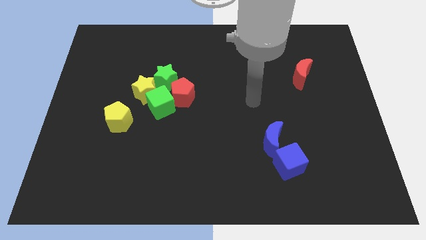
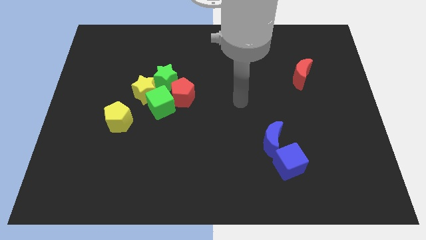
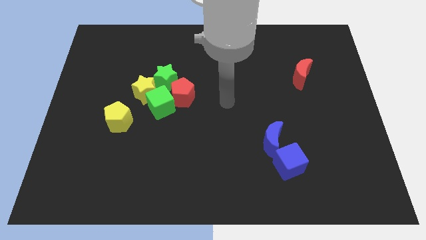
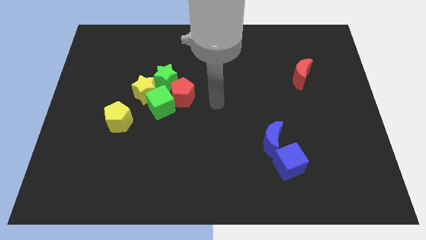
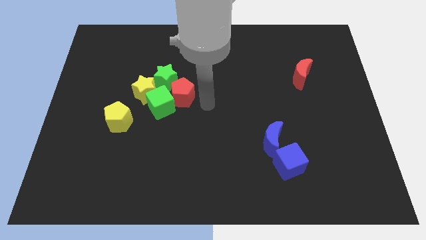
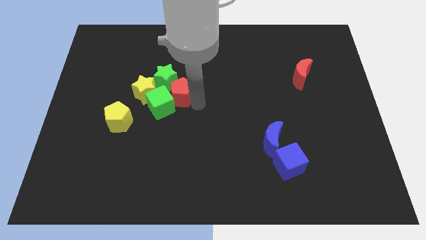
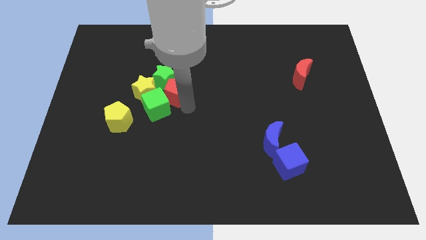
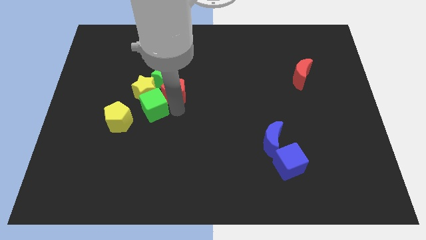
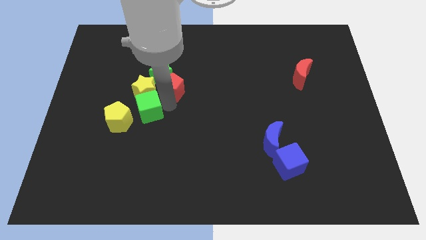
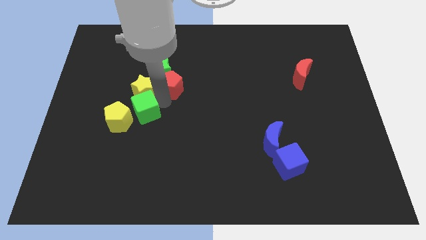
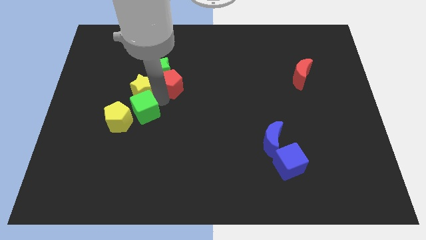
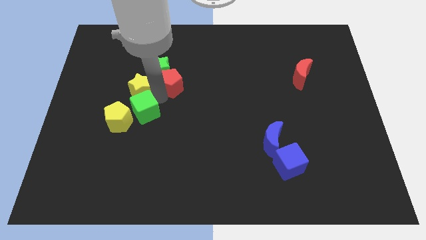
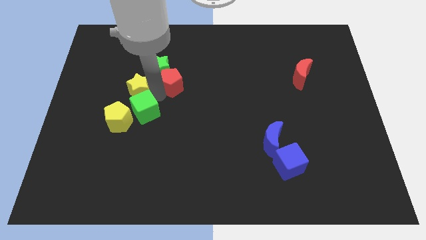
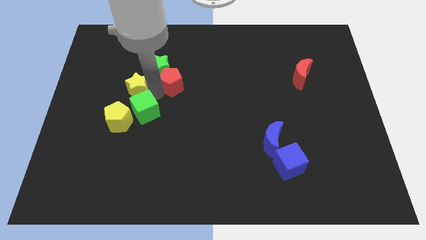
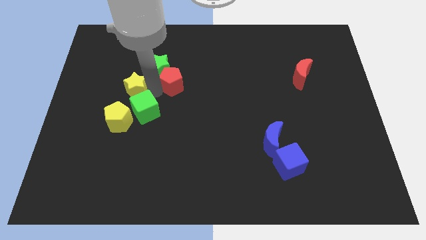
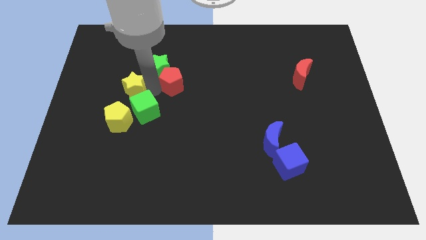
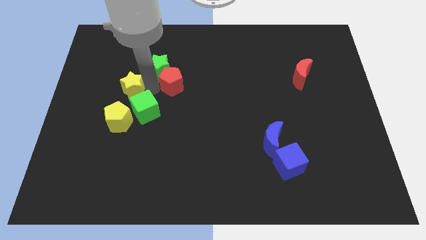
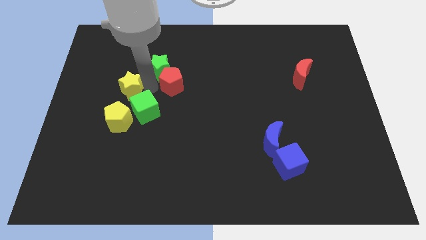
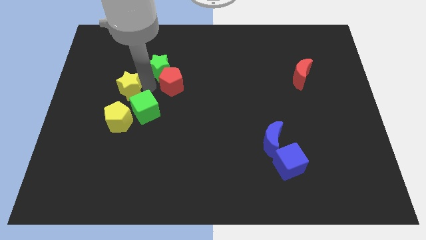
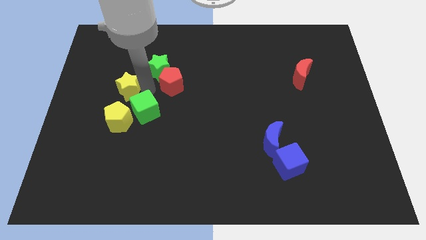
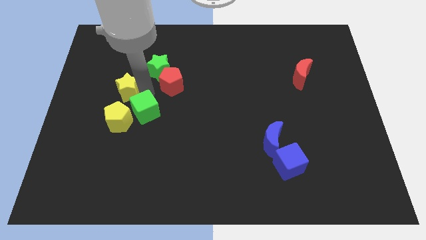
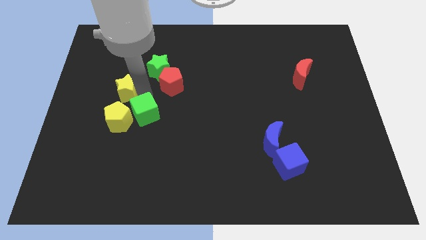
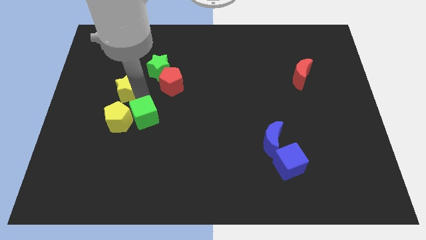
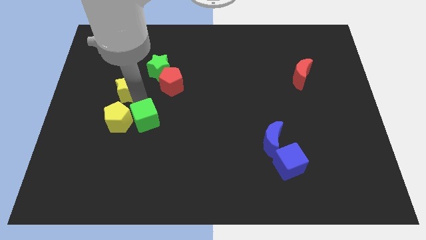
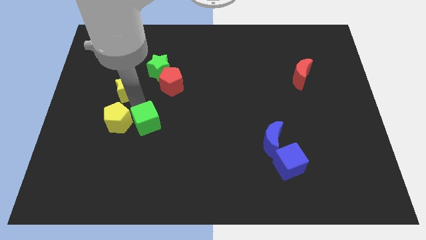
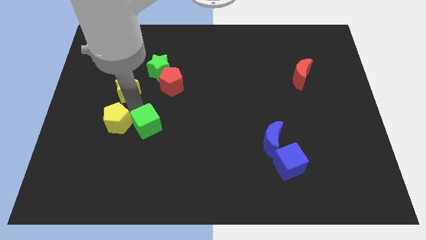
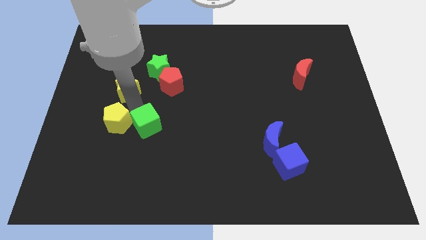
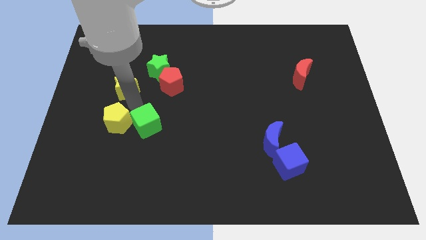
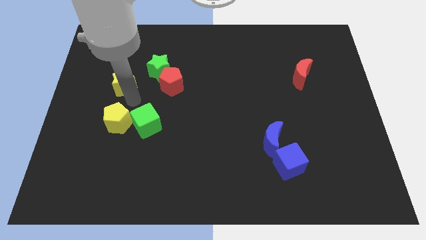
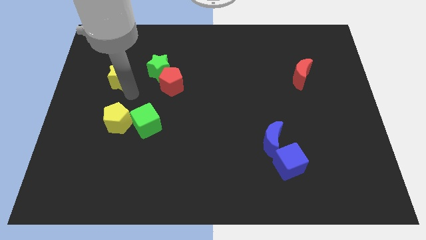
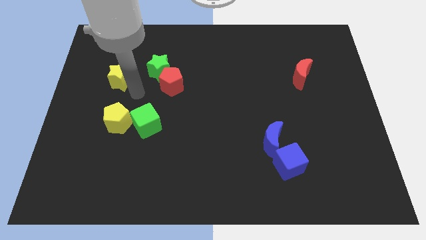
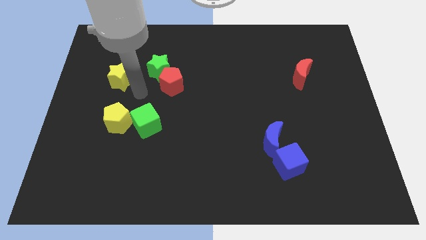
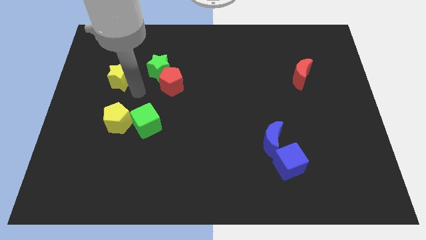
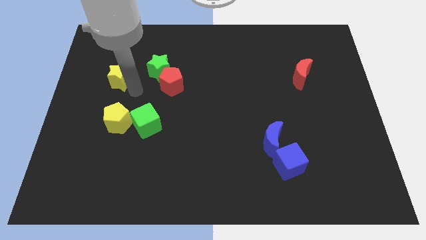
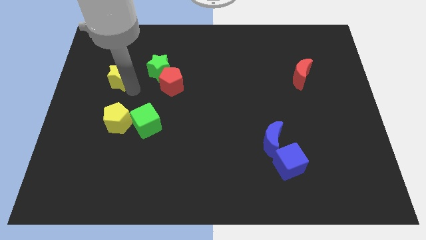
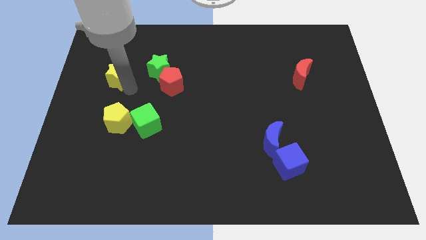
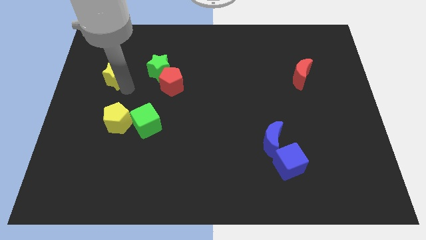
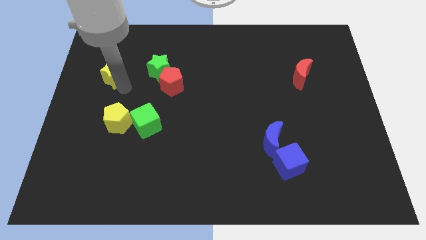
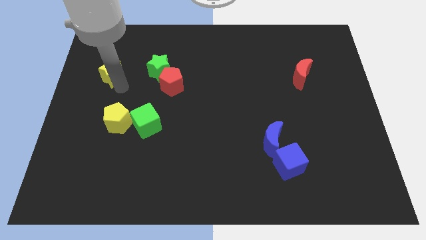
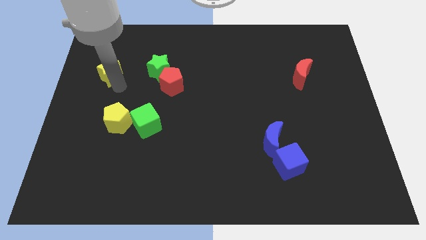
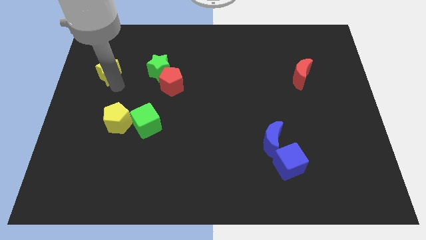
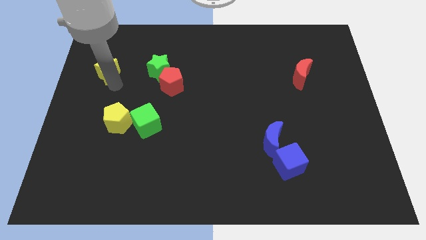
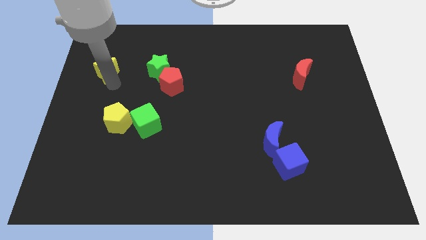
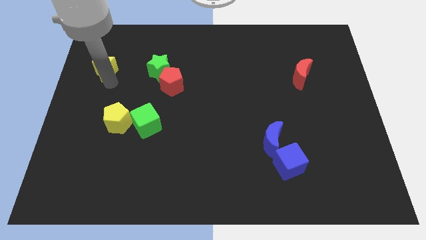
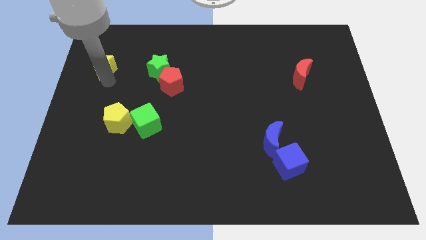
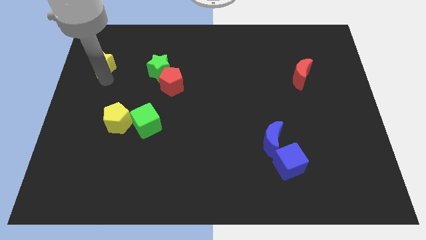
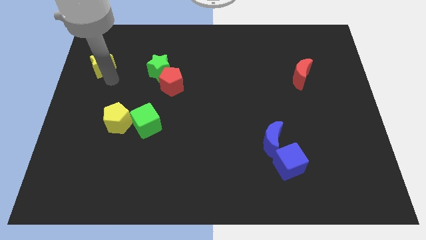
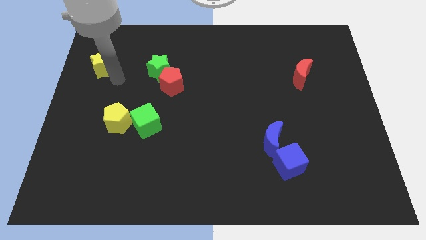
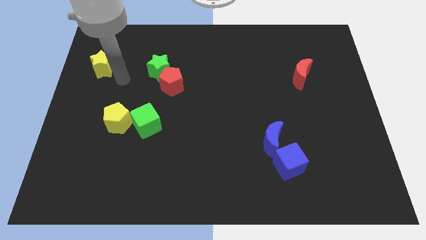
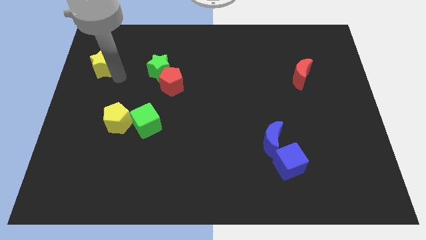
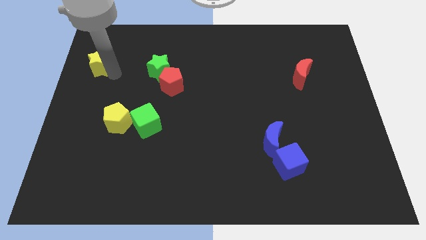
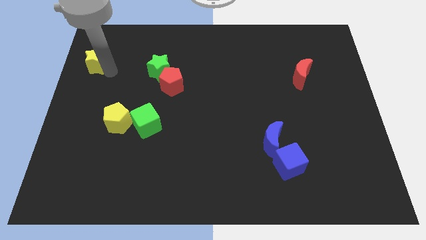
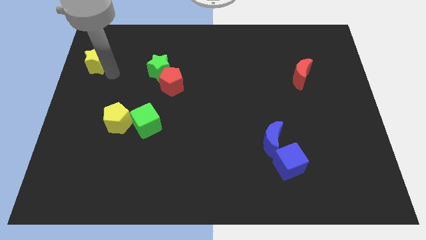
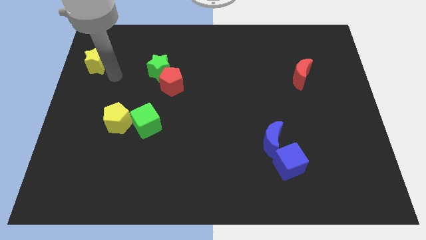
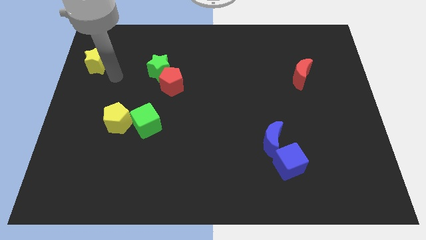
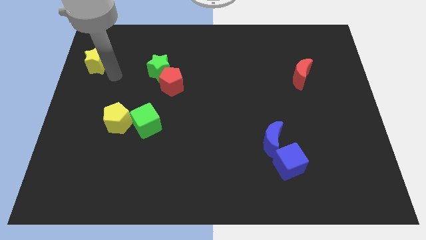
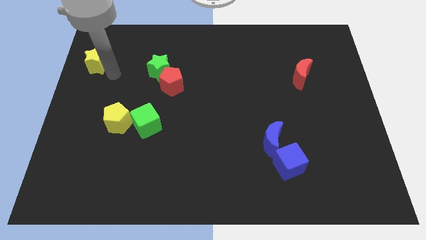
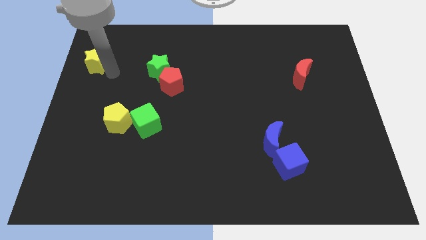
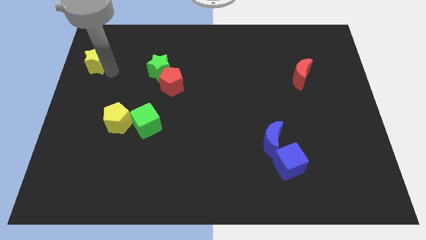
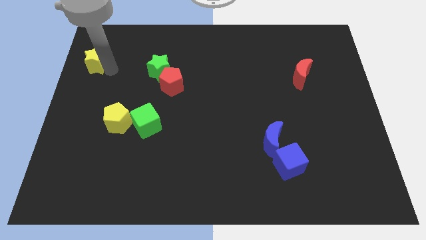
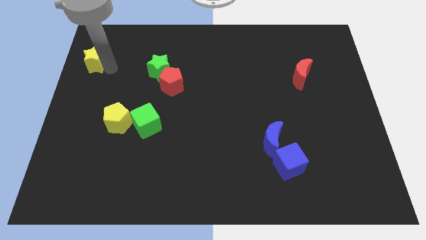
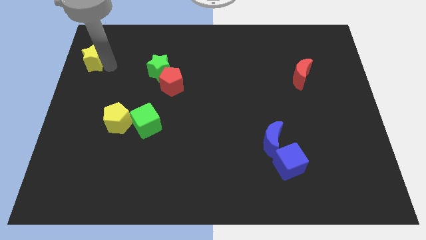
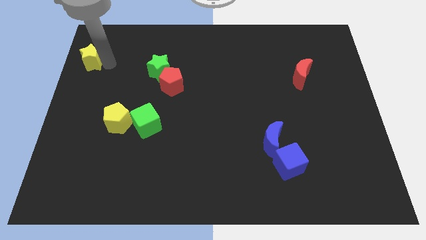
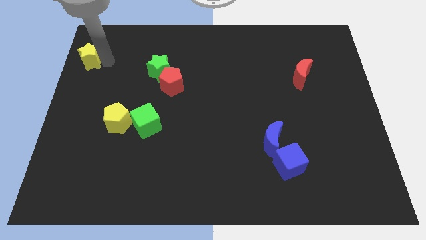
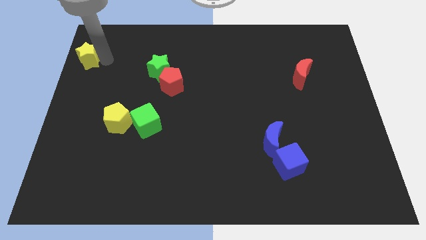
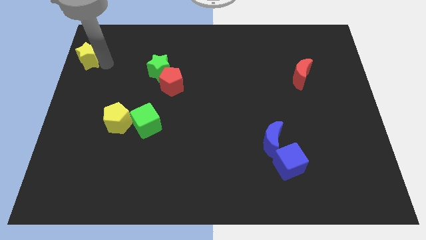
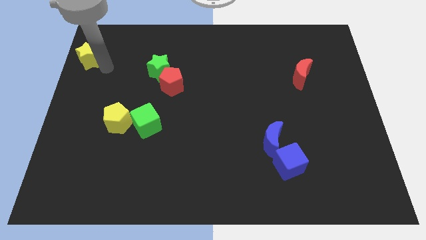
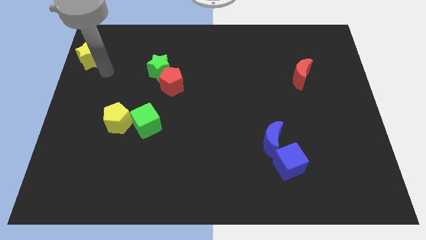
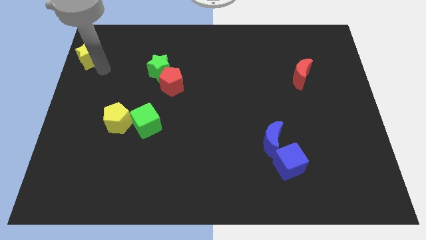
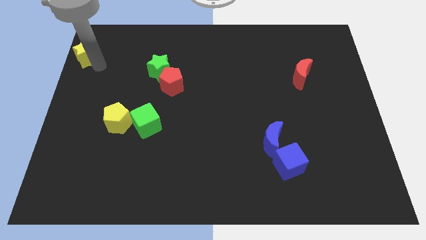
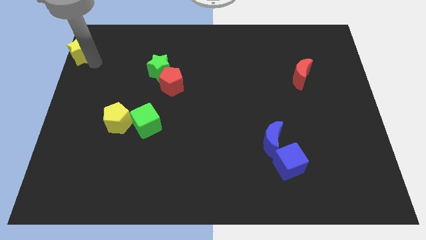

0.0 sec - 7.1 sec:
put the yellow star to the top left corner
